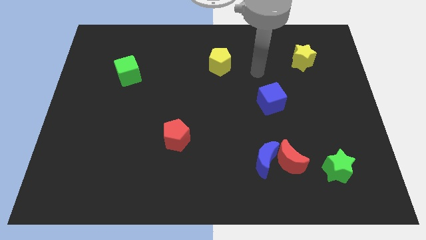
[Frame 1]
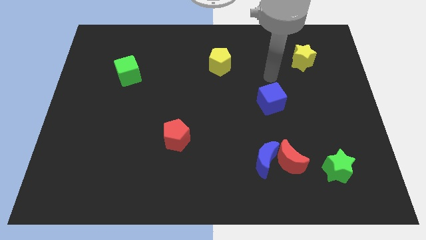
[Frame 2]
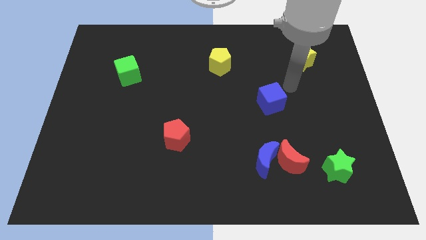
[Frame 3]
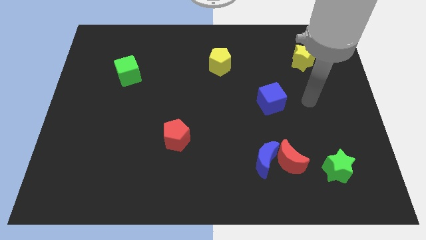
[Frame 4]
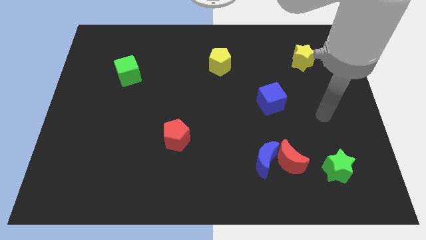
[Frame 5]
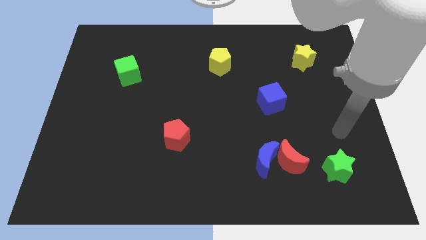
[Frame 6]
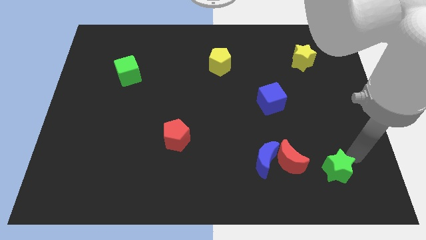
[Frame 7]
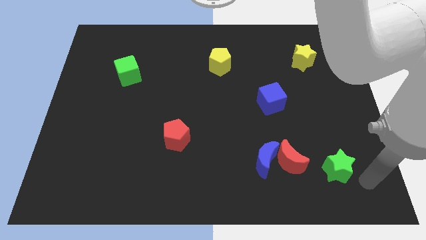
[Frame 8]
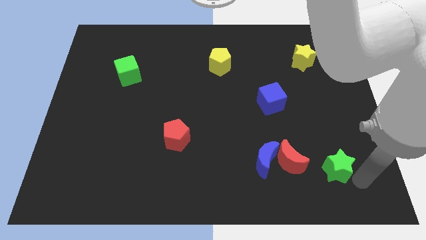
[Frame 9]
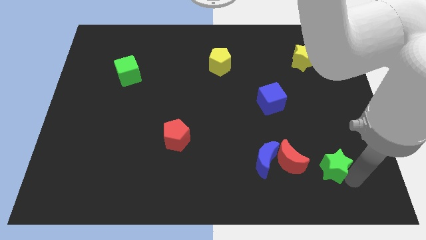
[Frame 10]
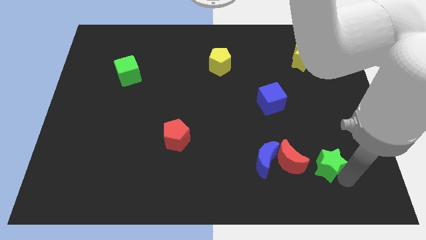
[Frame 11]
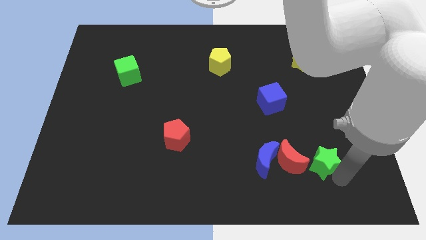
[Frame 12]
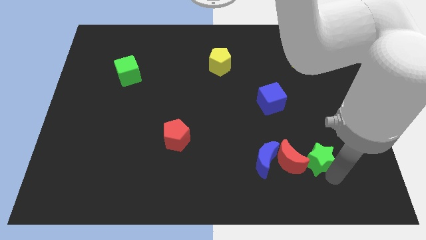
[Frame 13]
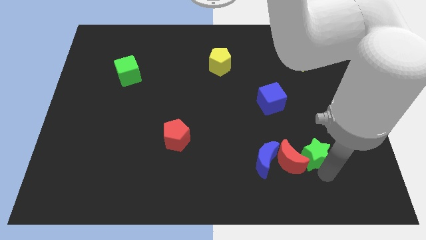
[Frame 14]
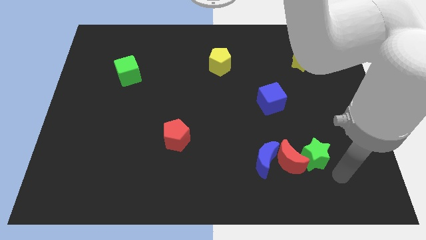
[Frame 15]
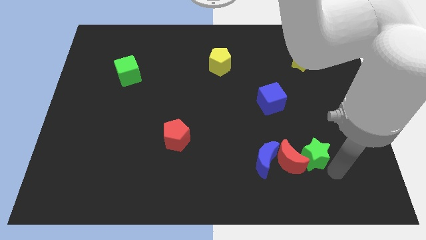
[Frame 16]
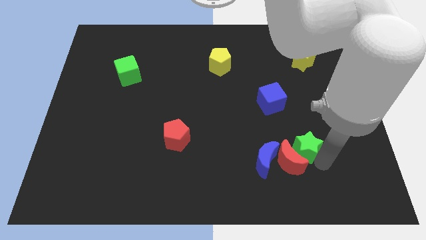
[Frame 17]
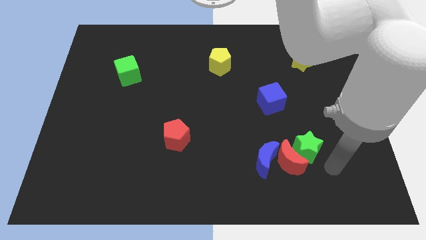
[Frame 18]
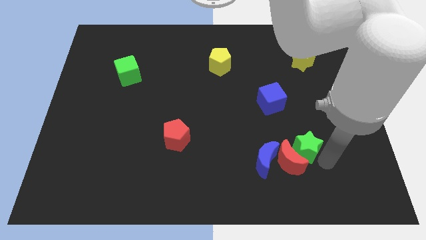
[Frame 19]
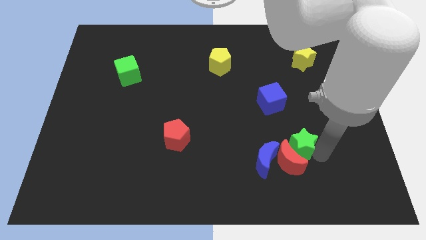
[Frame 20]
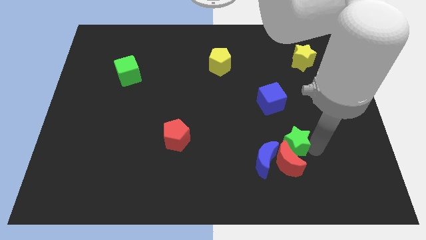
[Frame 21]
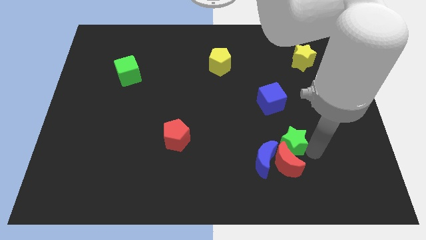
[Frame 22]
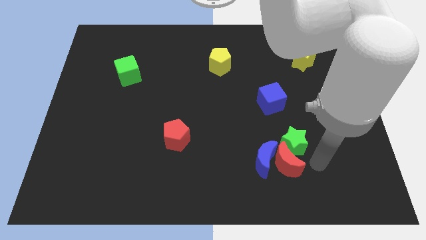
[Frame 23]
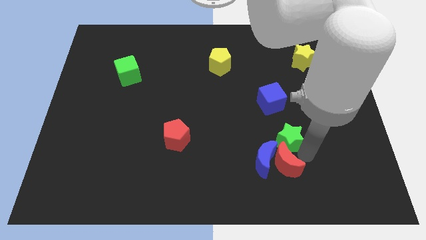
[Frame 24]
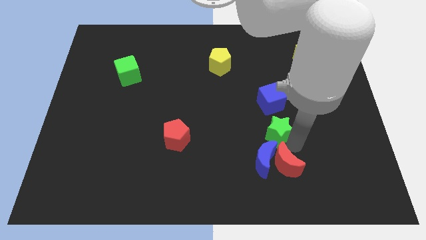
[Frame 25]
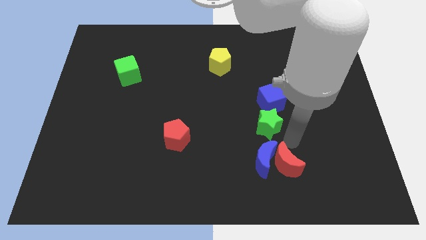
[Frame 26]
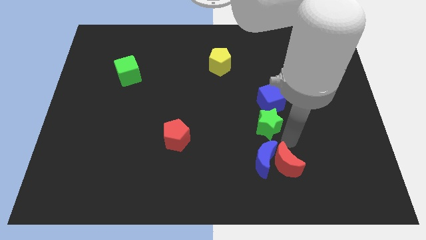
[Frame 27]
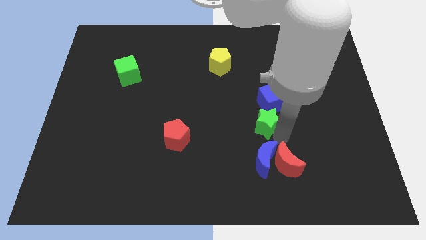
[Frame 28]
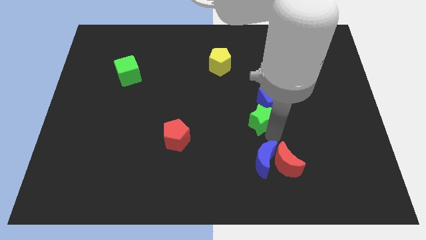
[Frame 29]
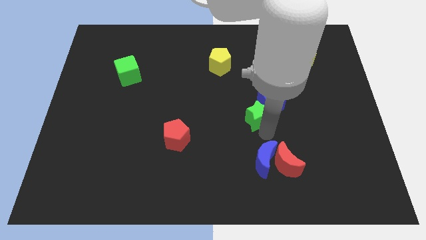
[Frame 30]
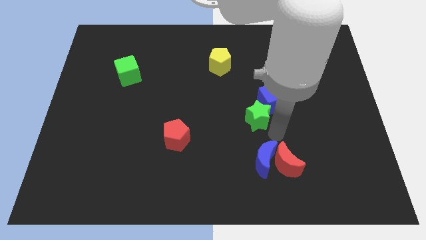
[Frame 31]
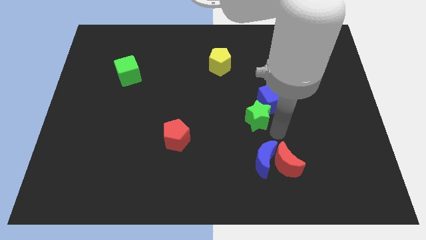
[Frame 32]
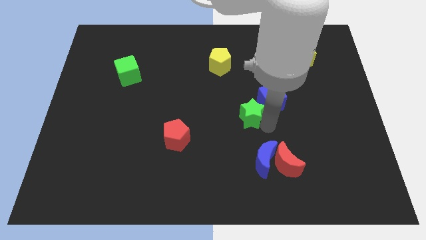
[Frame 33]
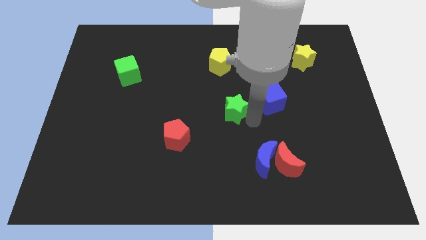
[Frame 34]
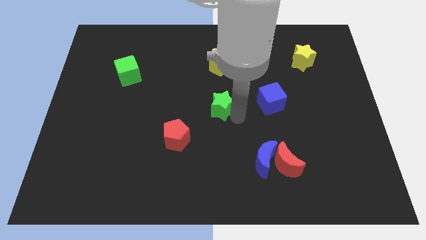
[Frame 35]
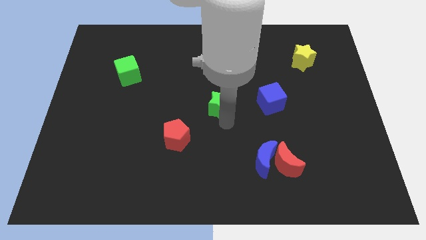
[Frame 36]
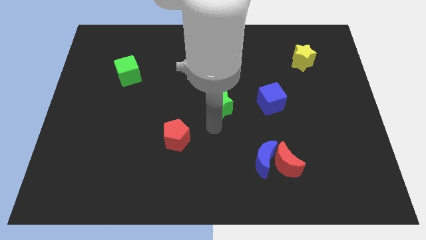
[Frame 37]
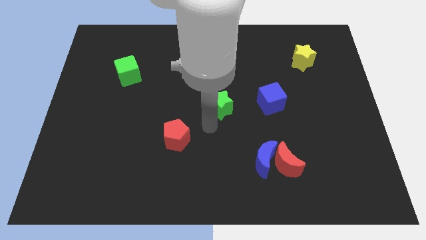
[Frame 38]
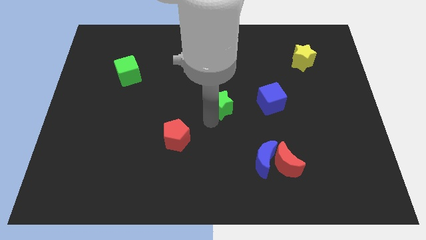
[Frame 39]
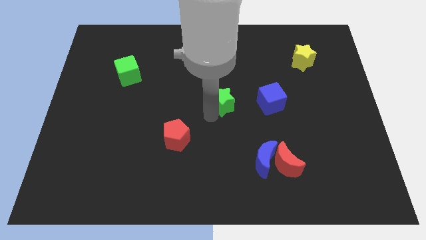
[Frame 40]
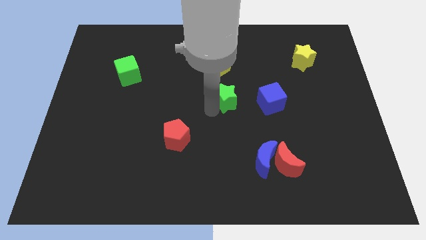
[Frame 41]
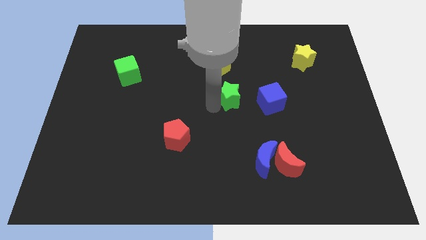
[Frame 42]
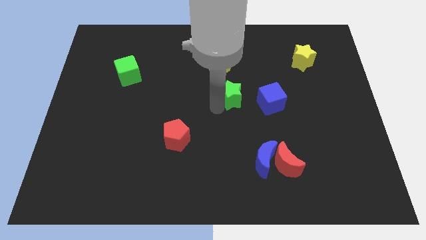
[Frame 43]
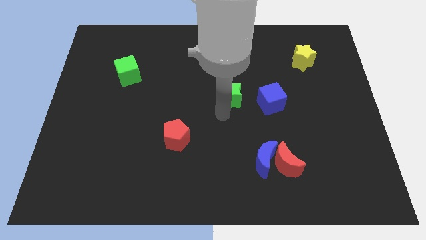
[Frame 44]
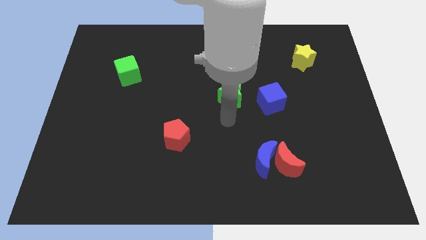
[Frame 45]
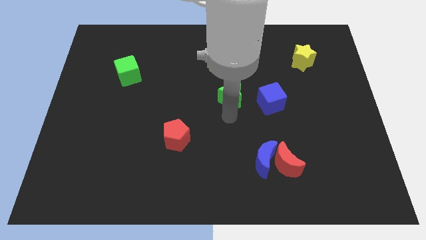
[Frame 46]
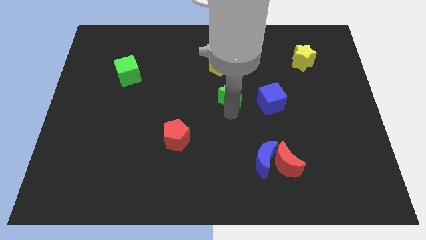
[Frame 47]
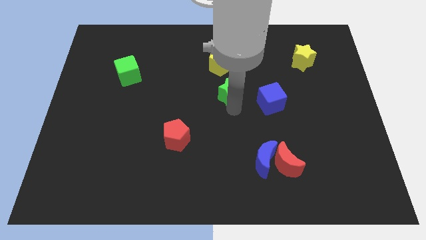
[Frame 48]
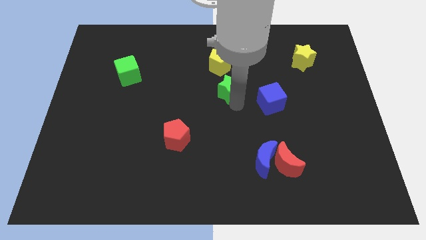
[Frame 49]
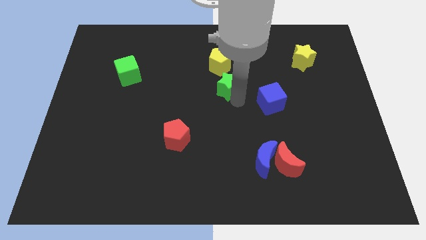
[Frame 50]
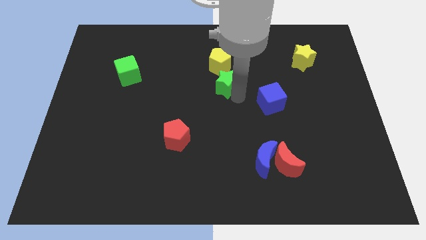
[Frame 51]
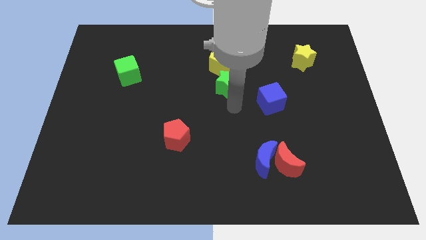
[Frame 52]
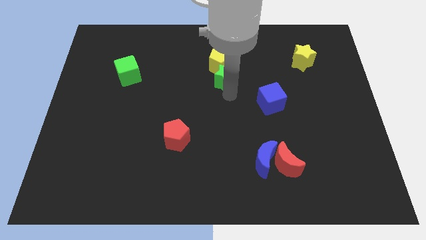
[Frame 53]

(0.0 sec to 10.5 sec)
move the green star close to the yellow pentagon

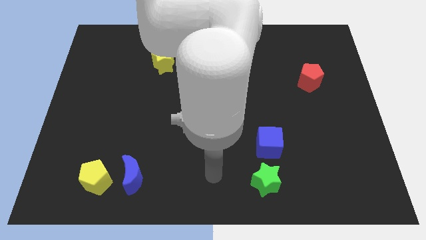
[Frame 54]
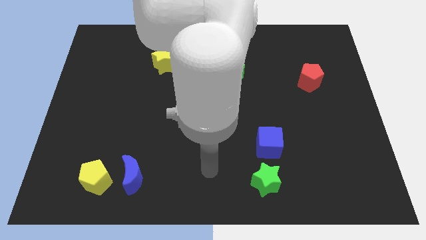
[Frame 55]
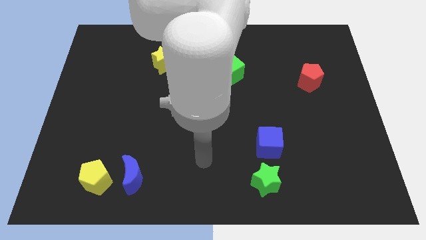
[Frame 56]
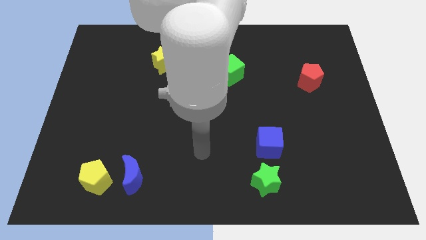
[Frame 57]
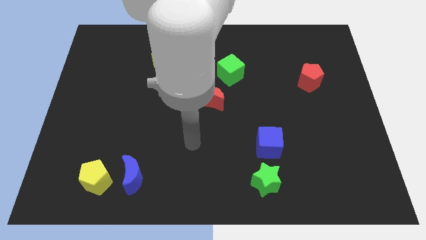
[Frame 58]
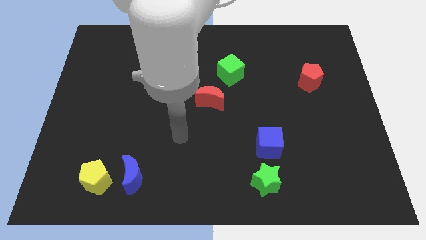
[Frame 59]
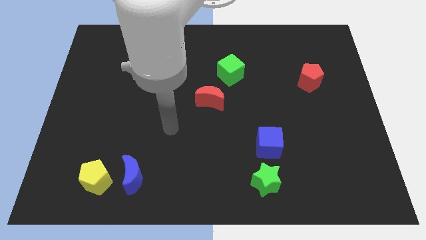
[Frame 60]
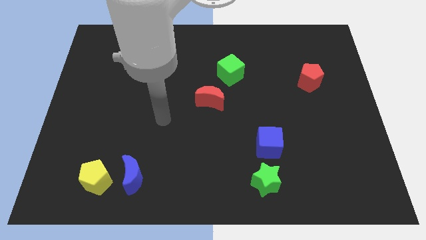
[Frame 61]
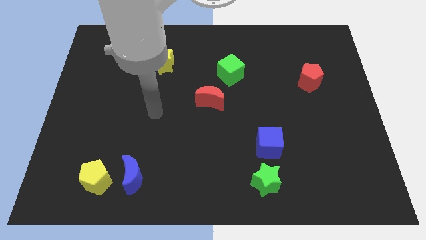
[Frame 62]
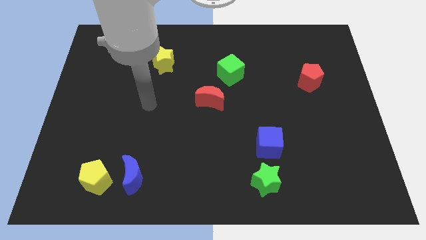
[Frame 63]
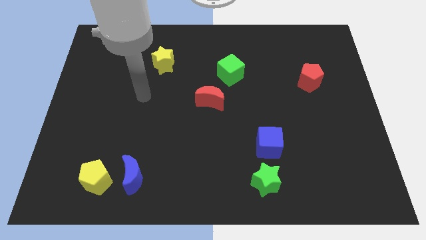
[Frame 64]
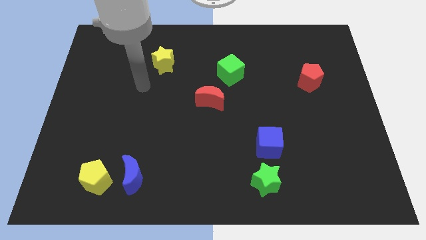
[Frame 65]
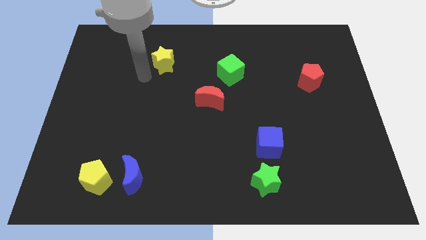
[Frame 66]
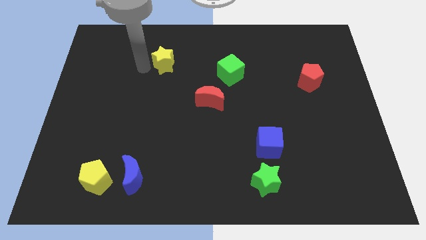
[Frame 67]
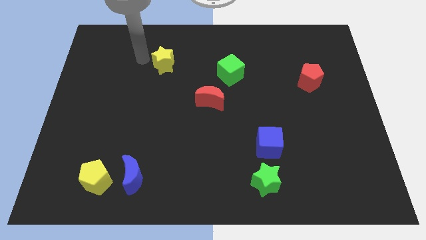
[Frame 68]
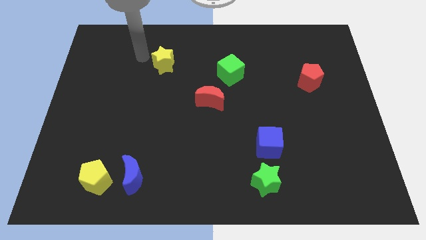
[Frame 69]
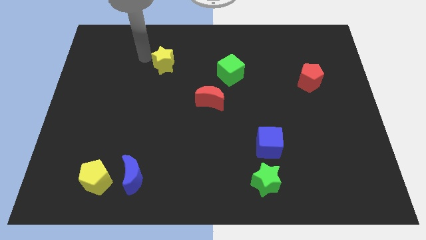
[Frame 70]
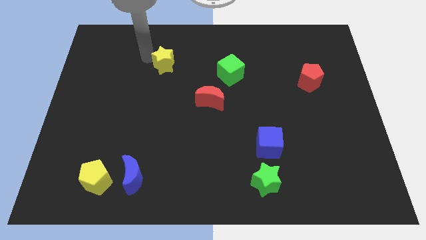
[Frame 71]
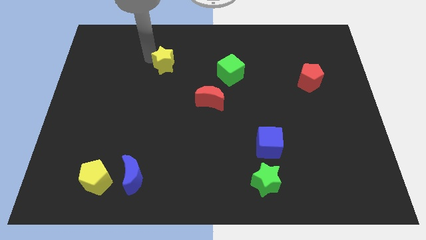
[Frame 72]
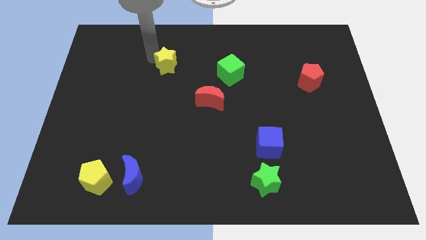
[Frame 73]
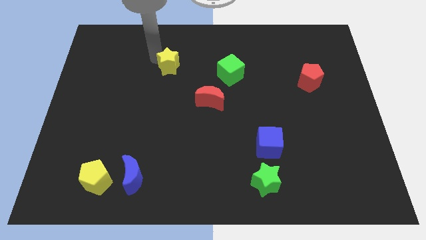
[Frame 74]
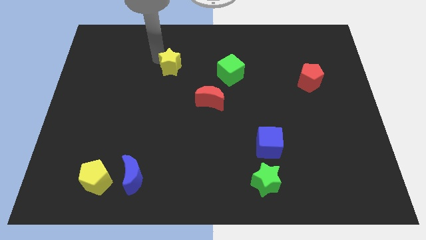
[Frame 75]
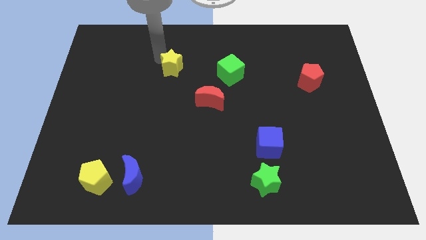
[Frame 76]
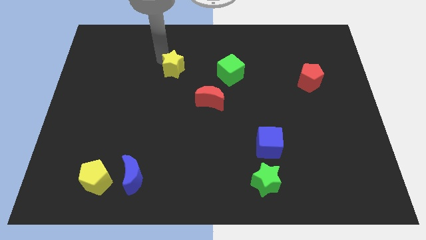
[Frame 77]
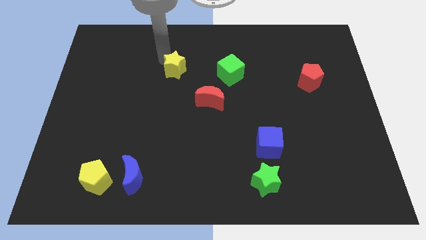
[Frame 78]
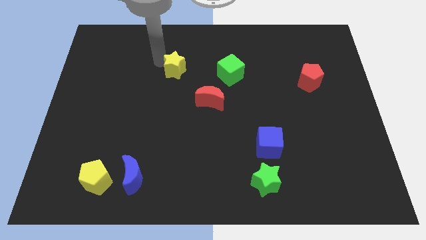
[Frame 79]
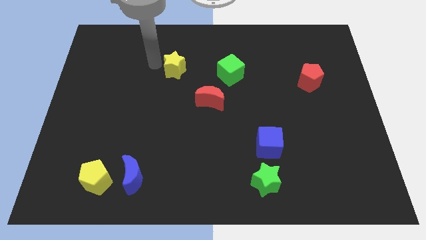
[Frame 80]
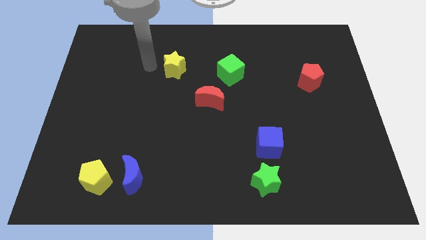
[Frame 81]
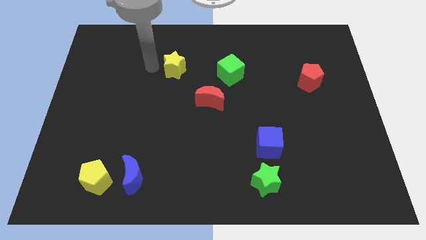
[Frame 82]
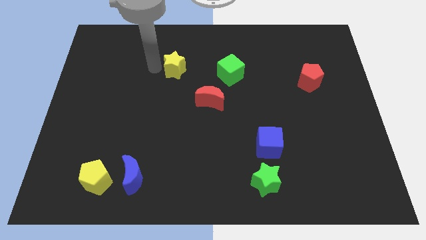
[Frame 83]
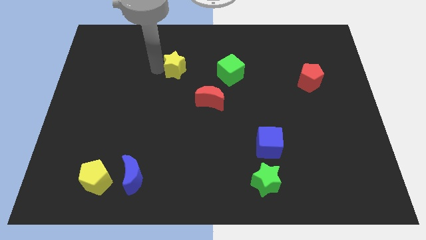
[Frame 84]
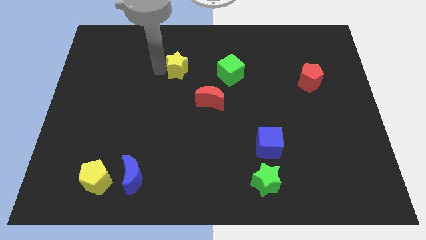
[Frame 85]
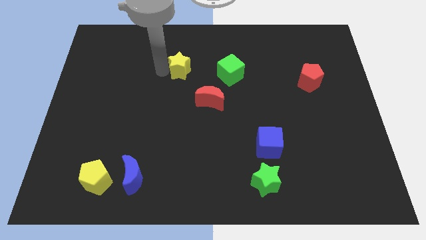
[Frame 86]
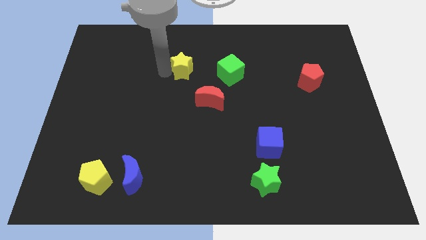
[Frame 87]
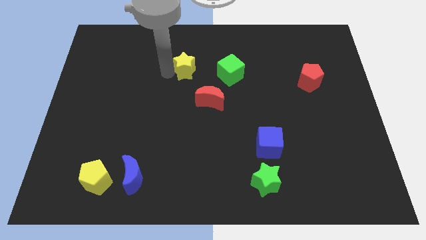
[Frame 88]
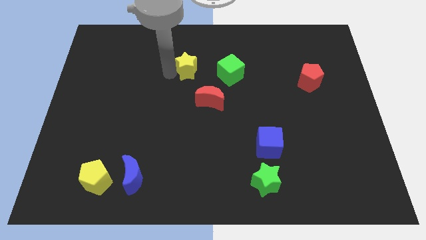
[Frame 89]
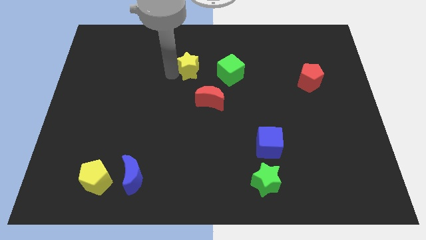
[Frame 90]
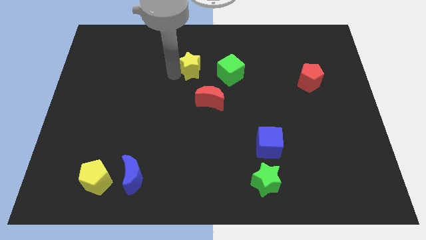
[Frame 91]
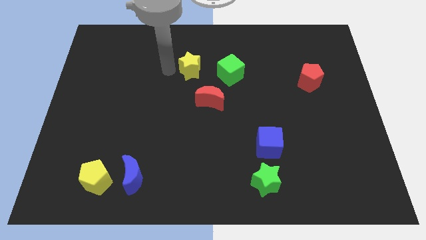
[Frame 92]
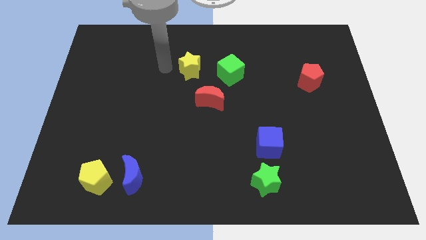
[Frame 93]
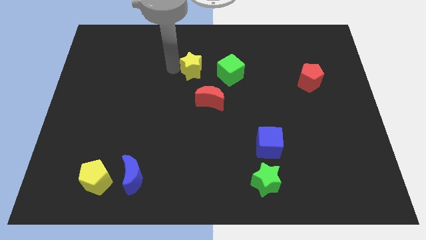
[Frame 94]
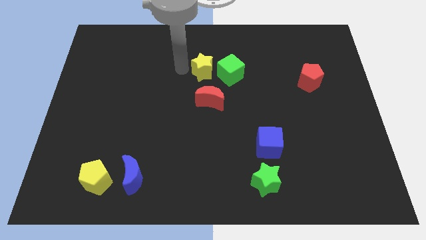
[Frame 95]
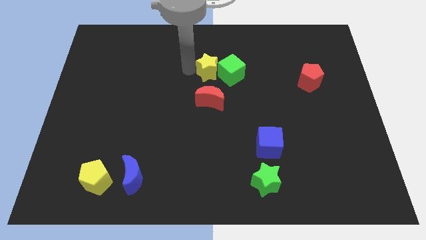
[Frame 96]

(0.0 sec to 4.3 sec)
push the yellow star to the green cube
